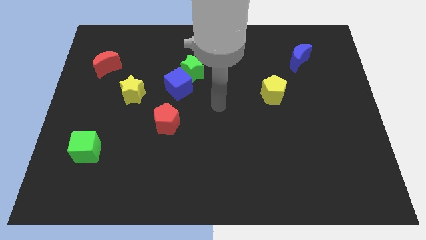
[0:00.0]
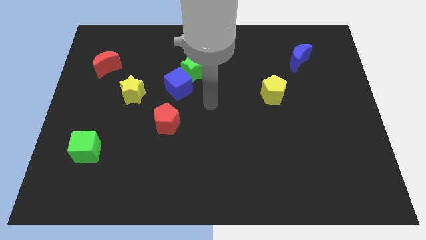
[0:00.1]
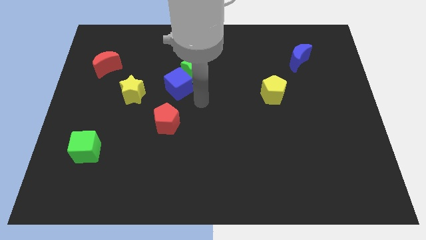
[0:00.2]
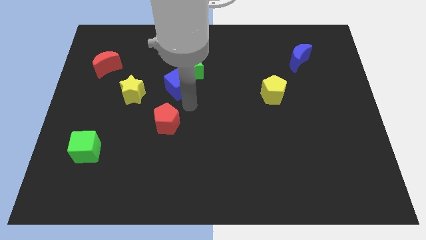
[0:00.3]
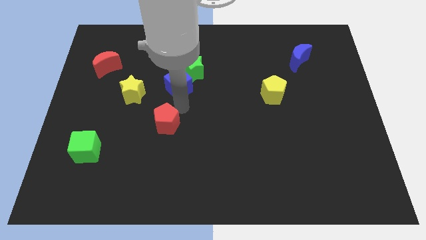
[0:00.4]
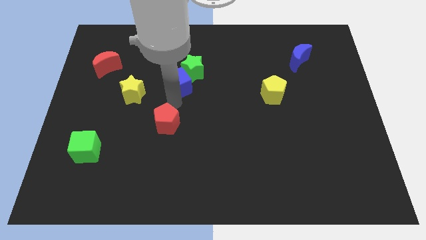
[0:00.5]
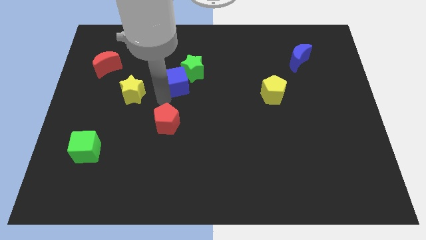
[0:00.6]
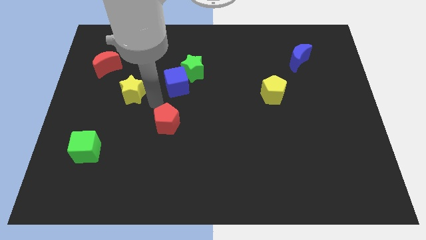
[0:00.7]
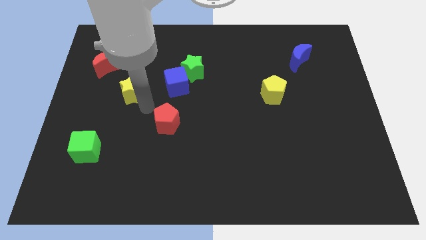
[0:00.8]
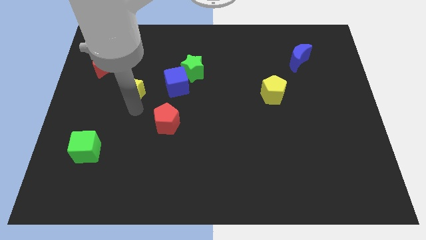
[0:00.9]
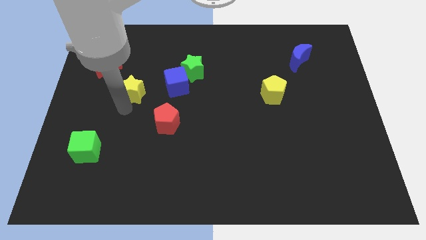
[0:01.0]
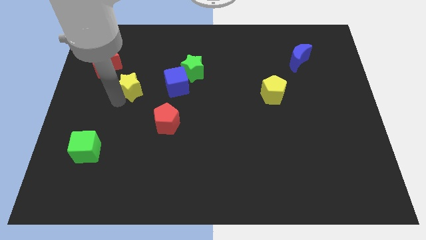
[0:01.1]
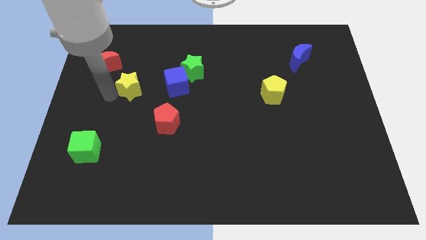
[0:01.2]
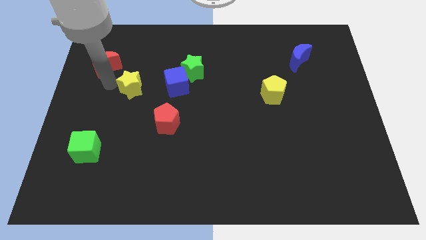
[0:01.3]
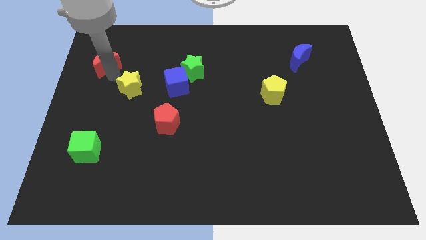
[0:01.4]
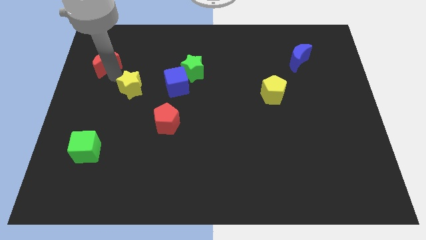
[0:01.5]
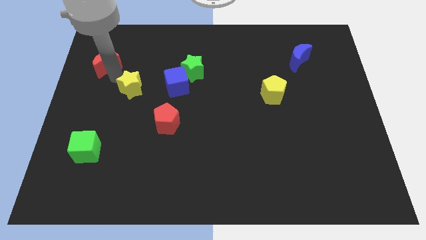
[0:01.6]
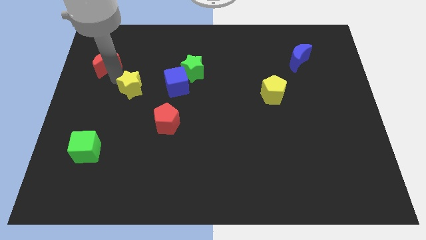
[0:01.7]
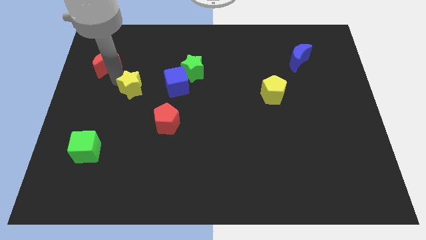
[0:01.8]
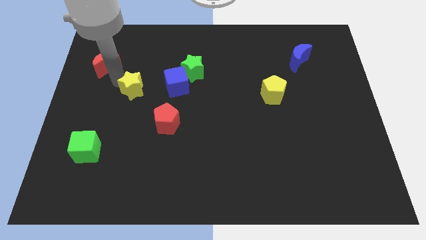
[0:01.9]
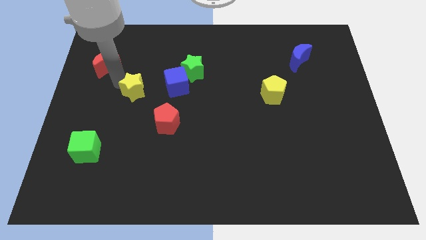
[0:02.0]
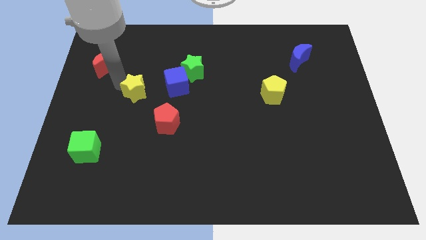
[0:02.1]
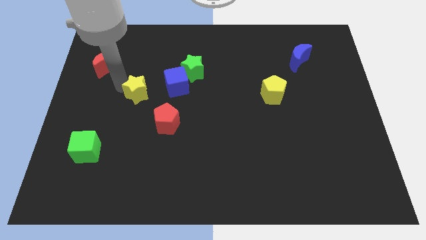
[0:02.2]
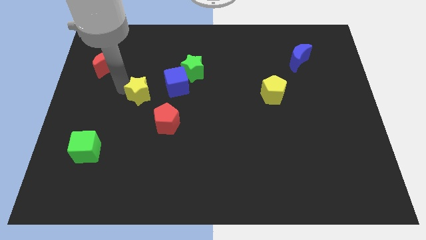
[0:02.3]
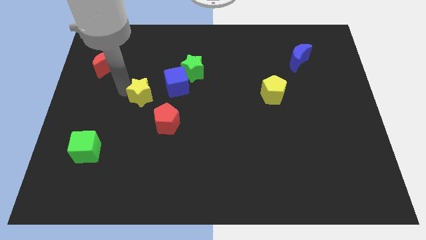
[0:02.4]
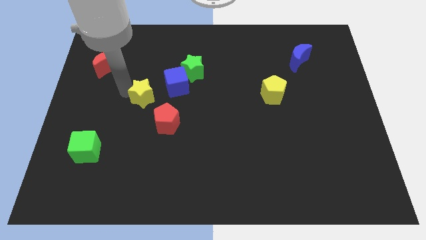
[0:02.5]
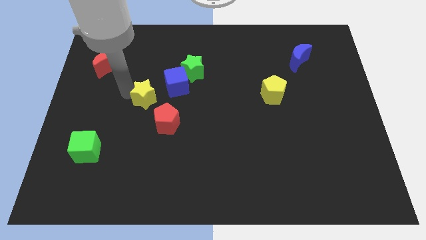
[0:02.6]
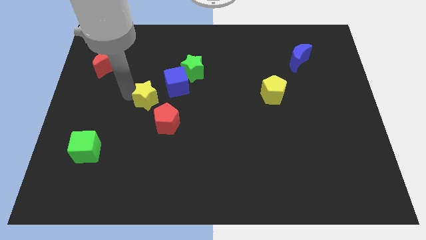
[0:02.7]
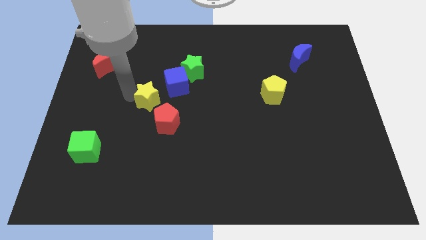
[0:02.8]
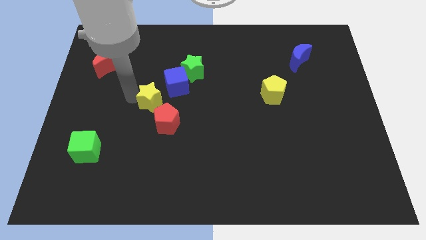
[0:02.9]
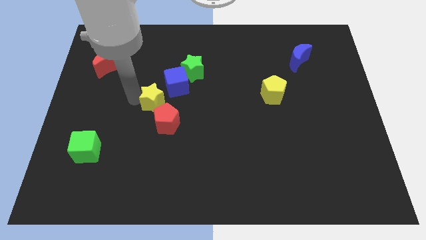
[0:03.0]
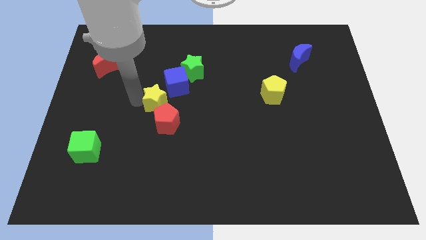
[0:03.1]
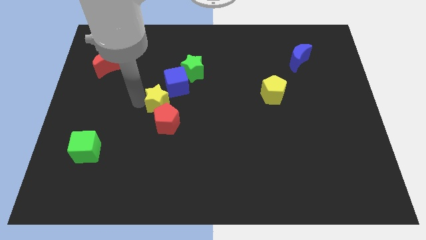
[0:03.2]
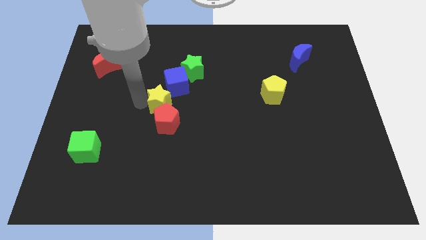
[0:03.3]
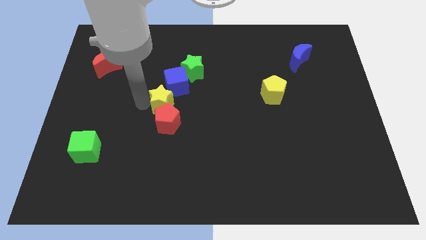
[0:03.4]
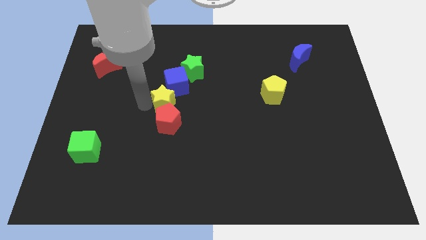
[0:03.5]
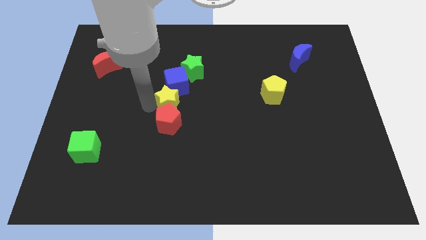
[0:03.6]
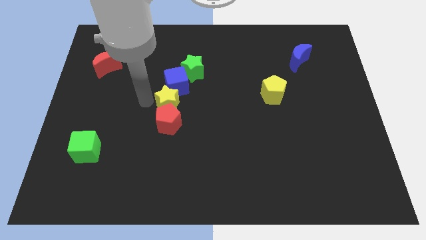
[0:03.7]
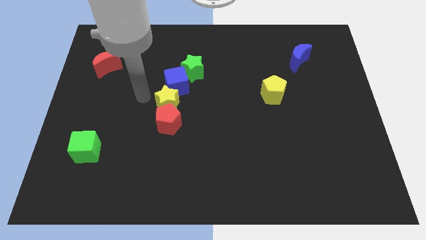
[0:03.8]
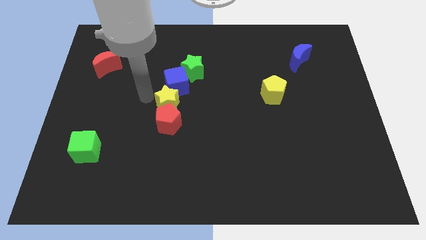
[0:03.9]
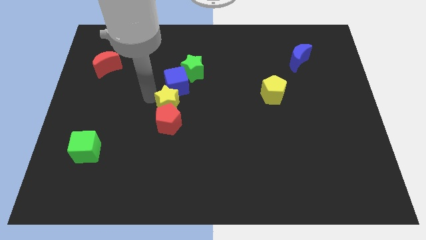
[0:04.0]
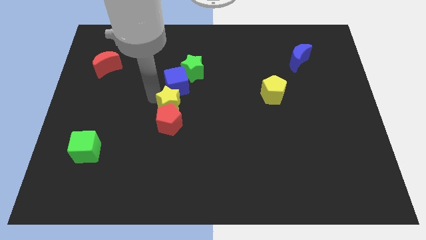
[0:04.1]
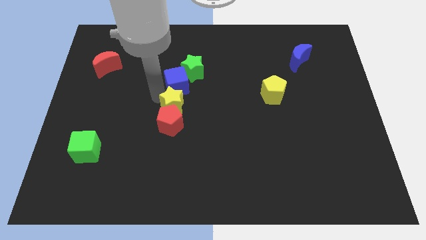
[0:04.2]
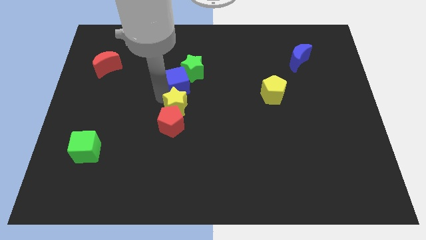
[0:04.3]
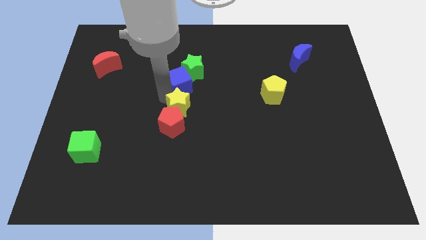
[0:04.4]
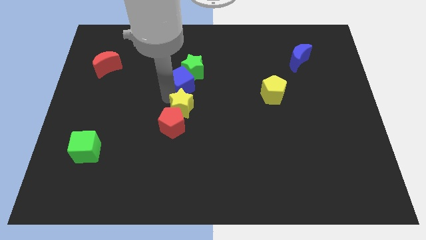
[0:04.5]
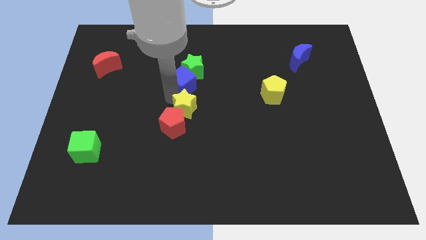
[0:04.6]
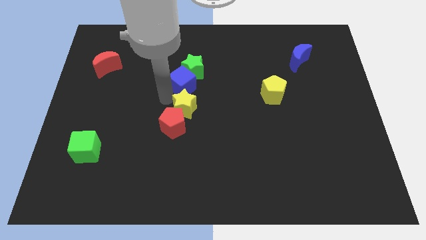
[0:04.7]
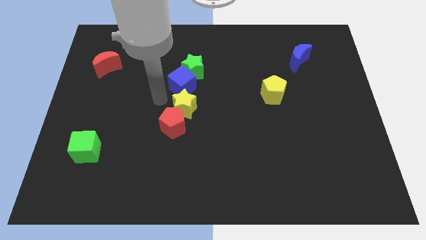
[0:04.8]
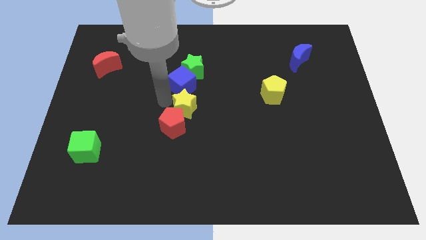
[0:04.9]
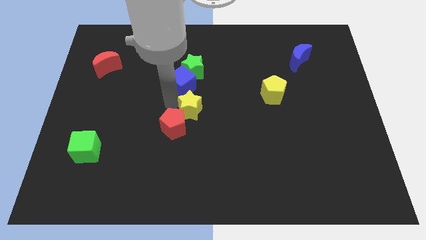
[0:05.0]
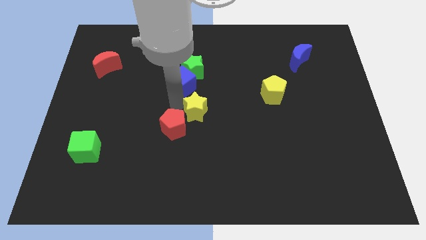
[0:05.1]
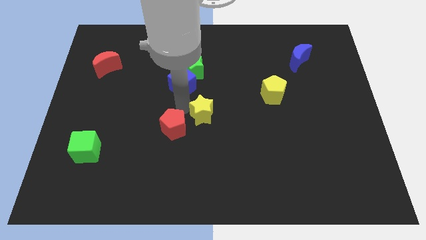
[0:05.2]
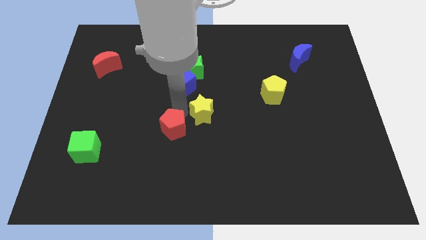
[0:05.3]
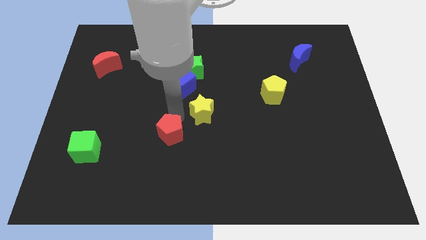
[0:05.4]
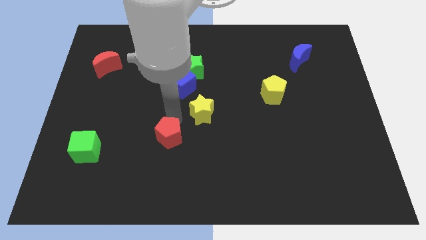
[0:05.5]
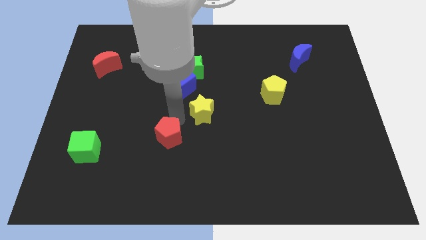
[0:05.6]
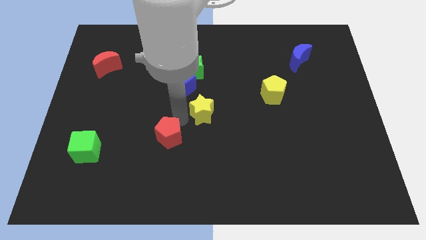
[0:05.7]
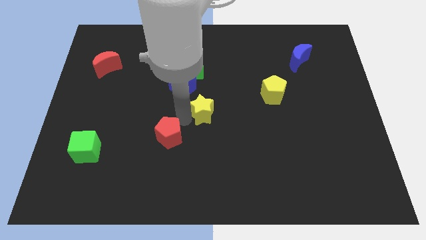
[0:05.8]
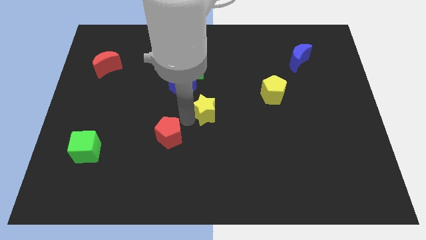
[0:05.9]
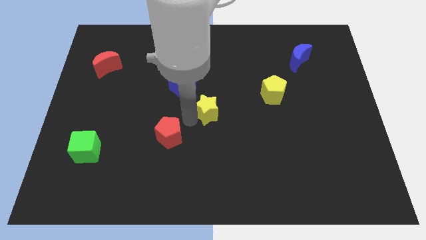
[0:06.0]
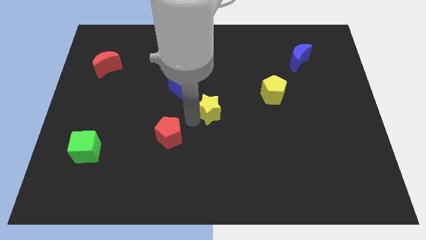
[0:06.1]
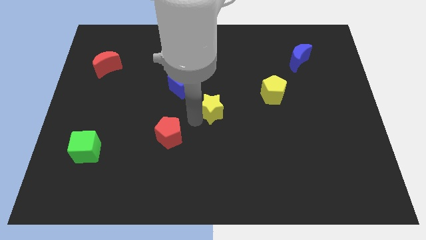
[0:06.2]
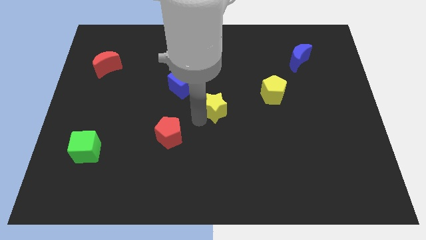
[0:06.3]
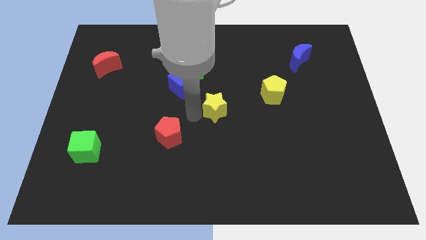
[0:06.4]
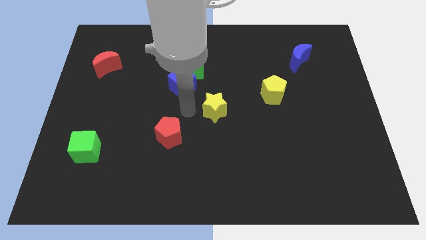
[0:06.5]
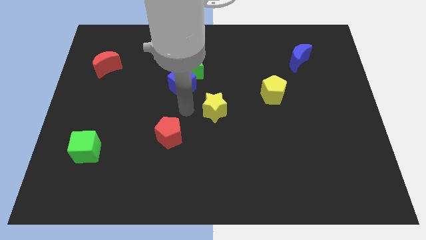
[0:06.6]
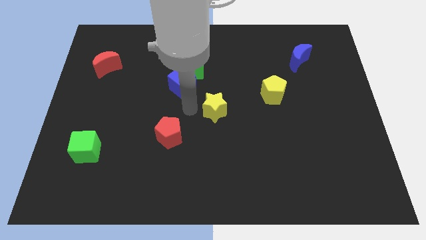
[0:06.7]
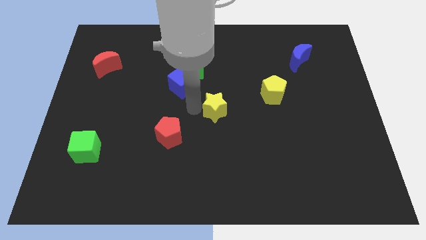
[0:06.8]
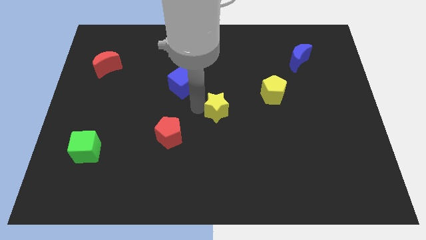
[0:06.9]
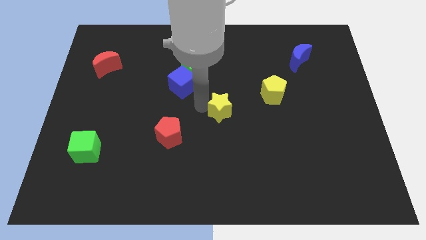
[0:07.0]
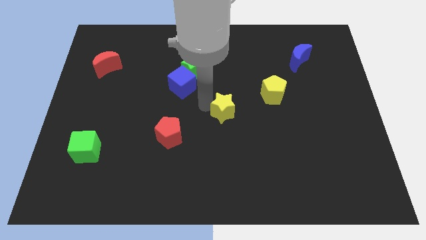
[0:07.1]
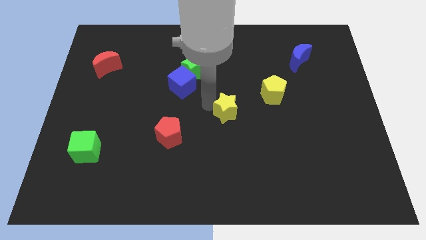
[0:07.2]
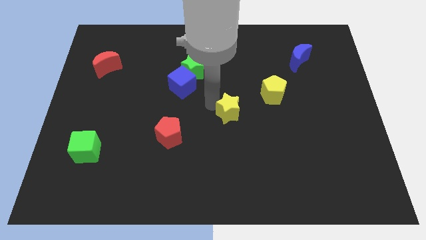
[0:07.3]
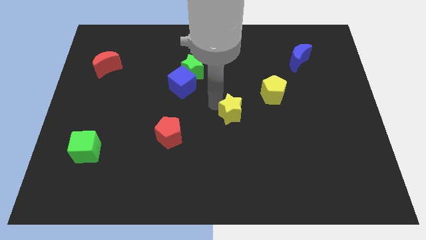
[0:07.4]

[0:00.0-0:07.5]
push the yellow star to the bottom left of the yellow pentagon
